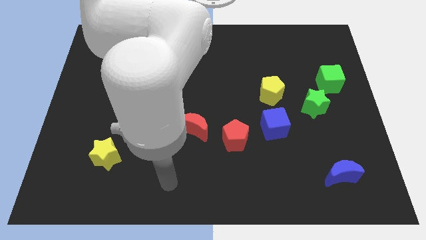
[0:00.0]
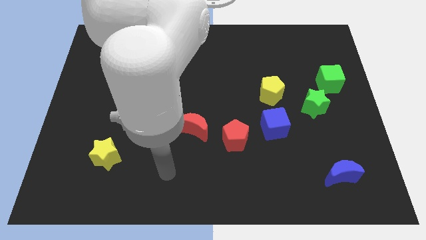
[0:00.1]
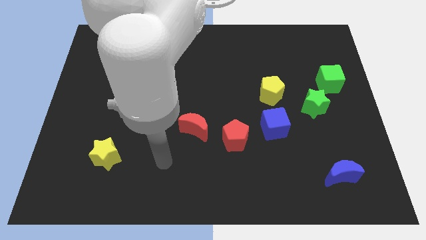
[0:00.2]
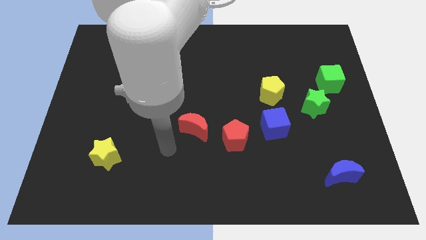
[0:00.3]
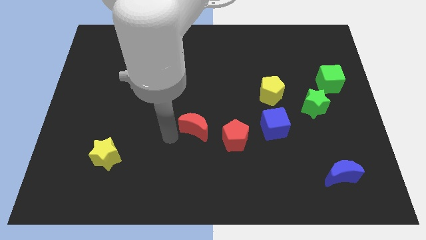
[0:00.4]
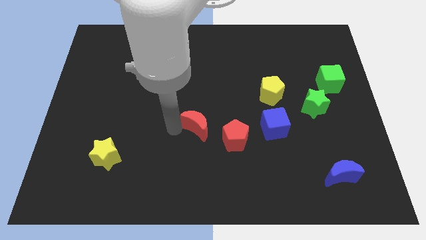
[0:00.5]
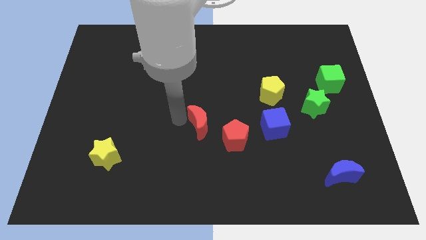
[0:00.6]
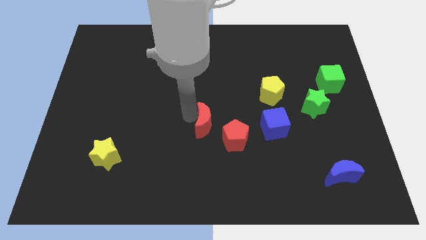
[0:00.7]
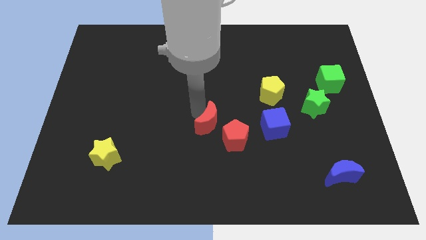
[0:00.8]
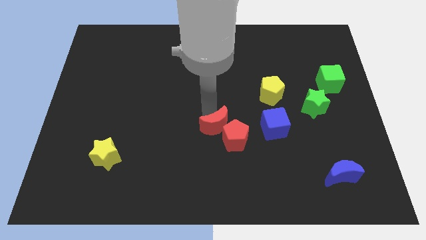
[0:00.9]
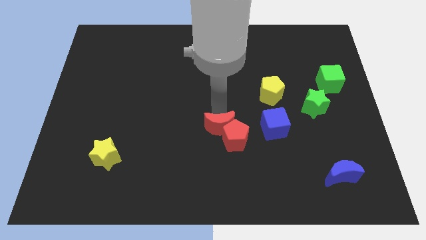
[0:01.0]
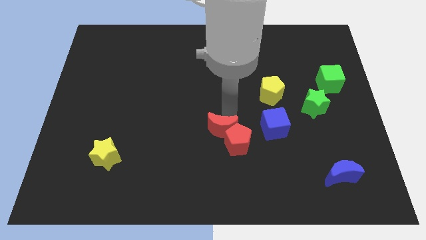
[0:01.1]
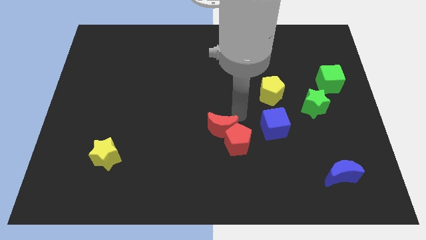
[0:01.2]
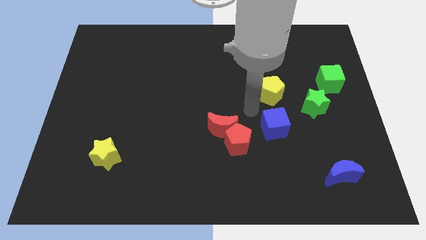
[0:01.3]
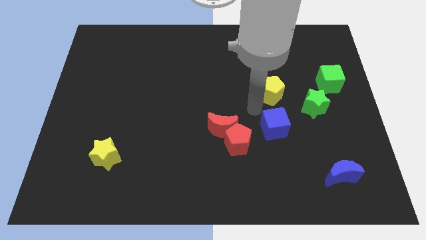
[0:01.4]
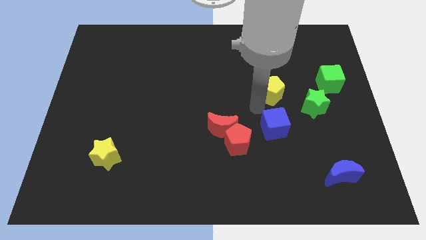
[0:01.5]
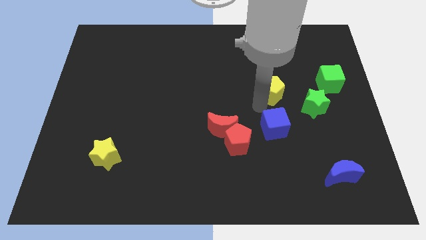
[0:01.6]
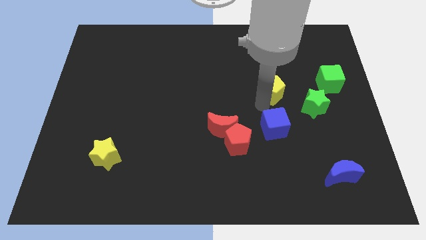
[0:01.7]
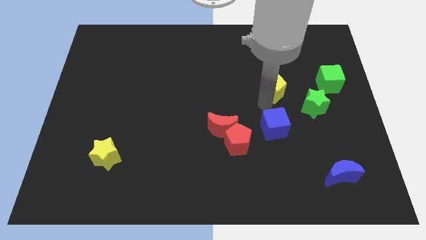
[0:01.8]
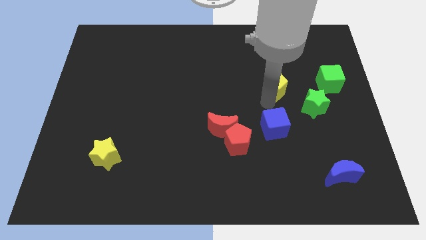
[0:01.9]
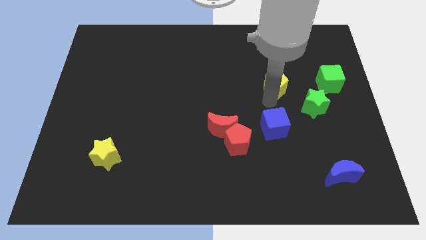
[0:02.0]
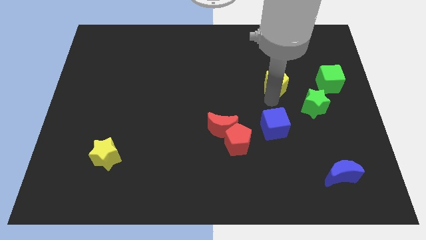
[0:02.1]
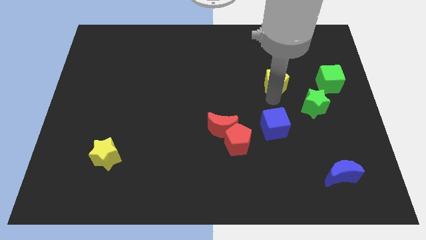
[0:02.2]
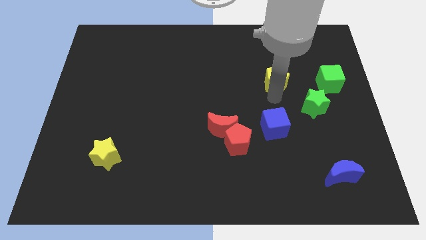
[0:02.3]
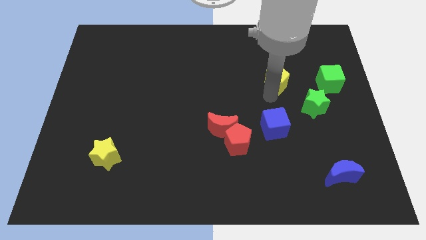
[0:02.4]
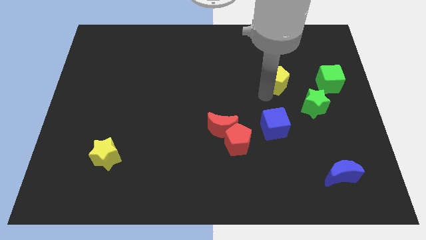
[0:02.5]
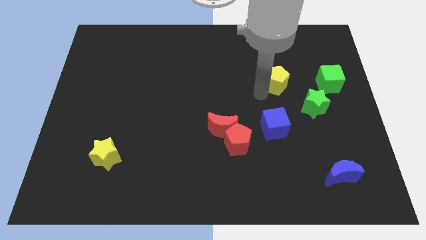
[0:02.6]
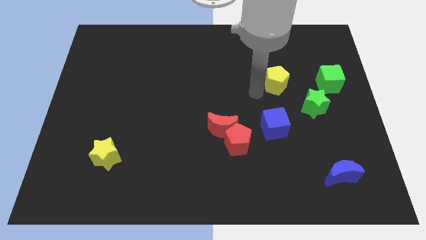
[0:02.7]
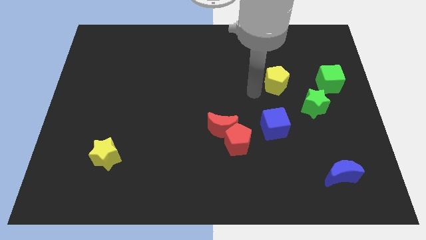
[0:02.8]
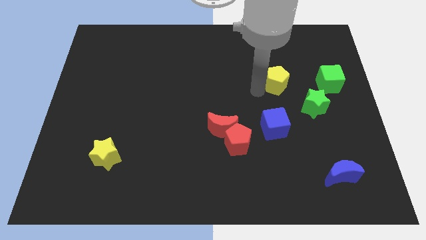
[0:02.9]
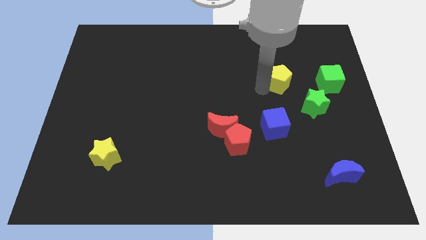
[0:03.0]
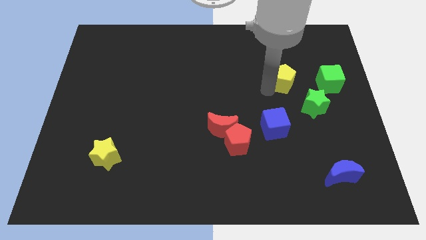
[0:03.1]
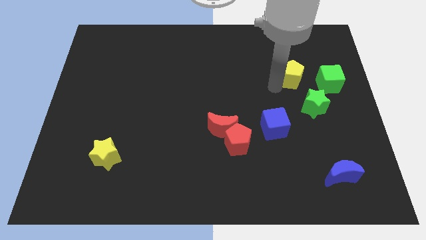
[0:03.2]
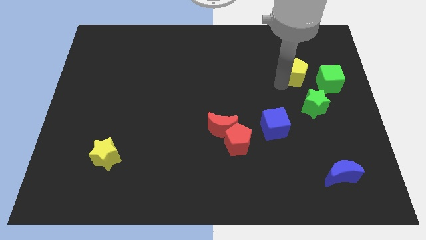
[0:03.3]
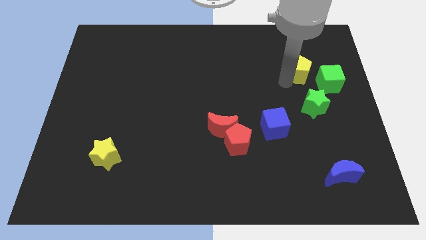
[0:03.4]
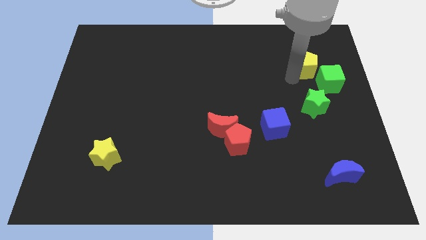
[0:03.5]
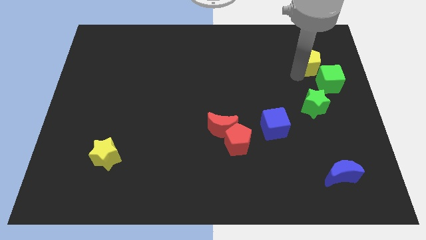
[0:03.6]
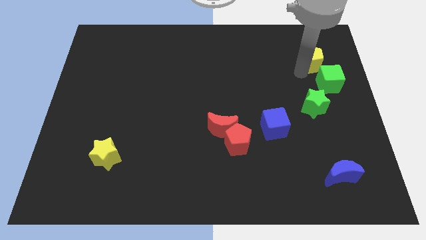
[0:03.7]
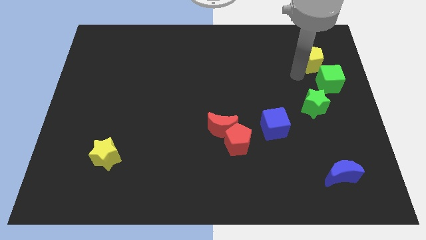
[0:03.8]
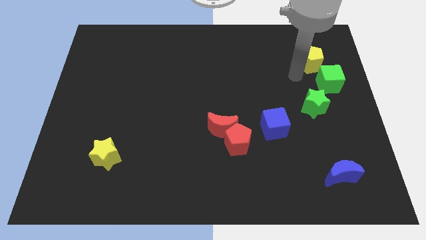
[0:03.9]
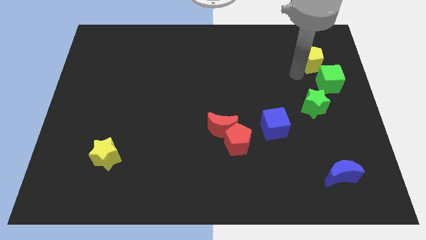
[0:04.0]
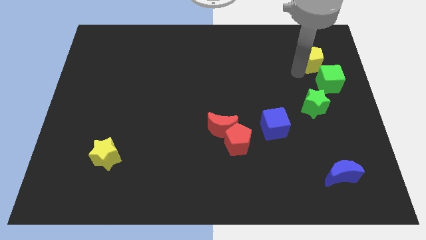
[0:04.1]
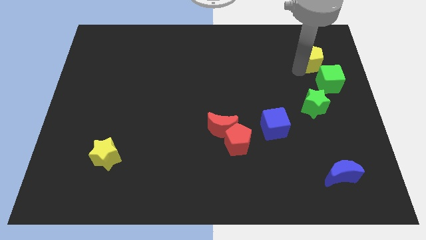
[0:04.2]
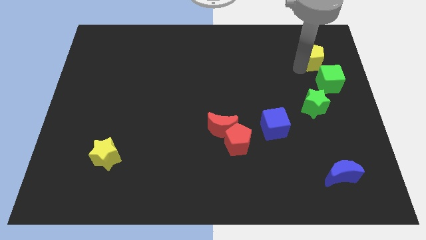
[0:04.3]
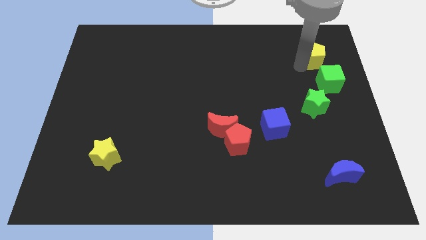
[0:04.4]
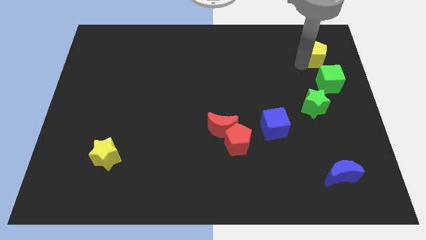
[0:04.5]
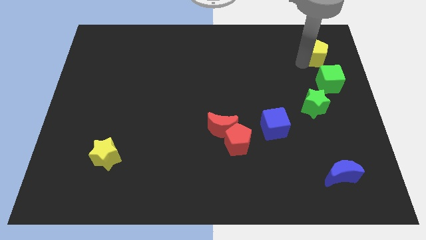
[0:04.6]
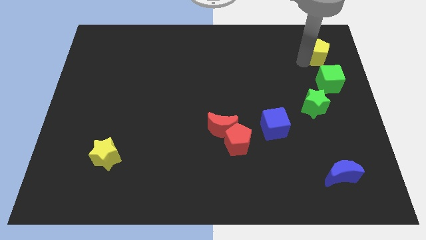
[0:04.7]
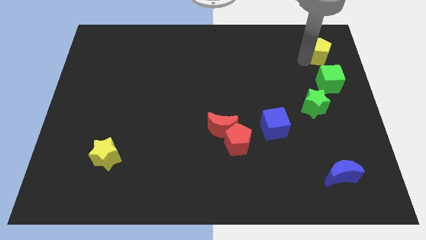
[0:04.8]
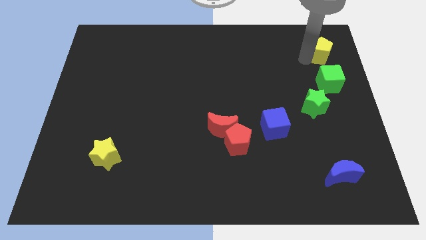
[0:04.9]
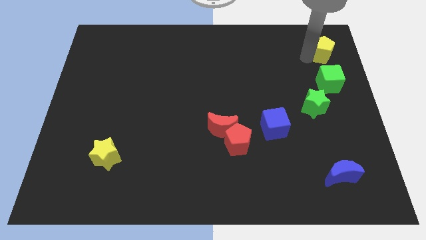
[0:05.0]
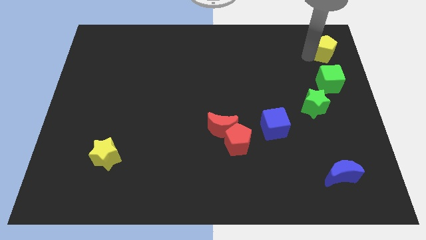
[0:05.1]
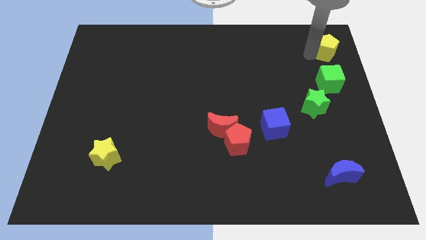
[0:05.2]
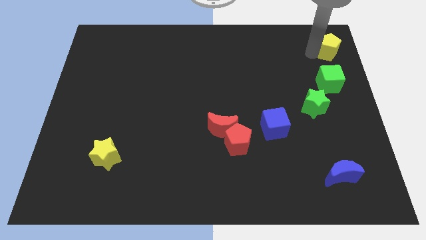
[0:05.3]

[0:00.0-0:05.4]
move the yellow pentagon to the top right

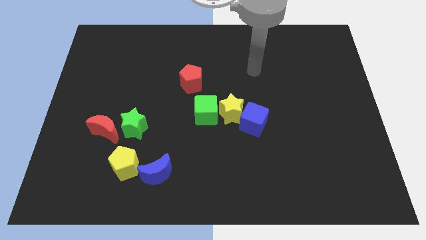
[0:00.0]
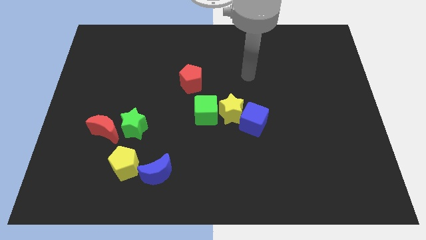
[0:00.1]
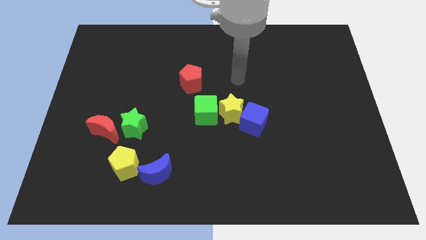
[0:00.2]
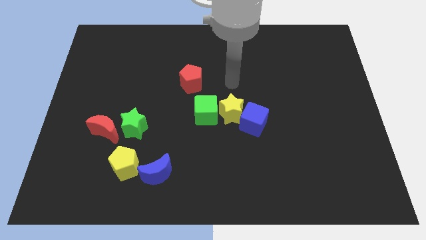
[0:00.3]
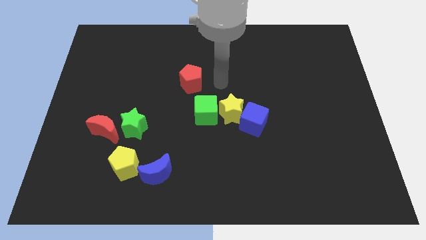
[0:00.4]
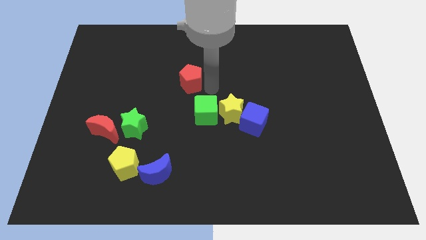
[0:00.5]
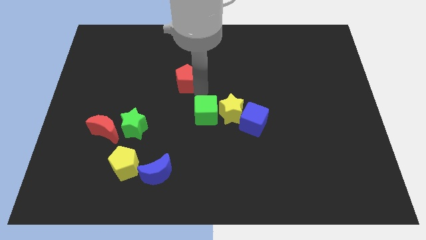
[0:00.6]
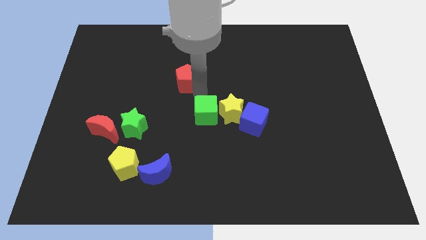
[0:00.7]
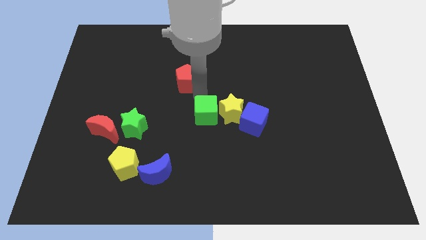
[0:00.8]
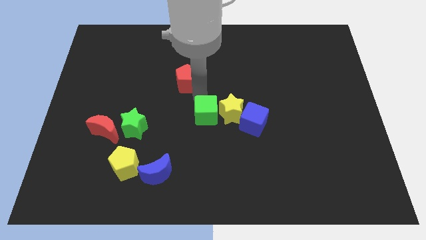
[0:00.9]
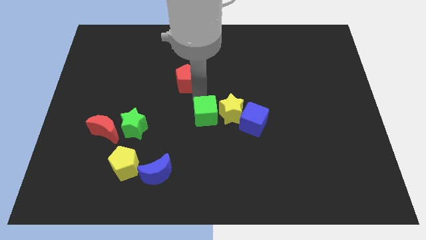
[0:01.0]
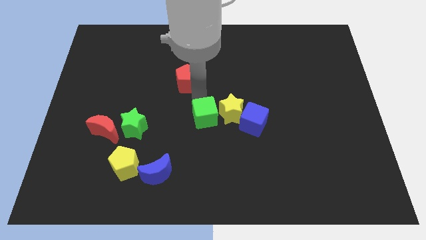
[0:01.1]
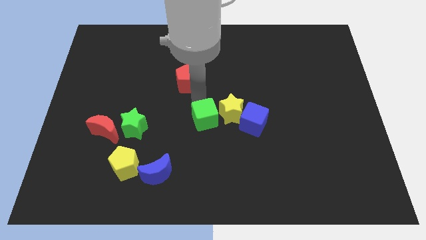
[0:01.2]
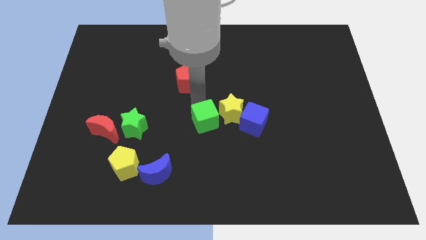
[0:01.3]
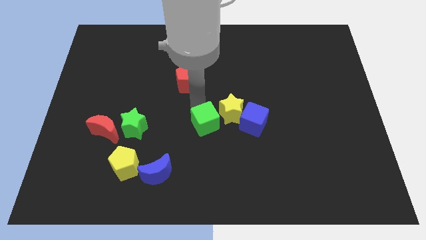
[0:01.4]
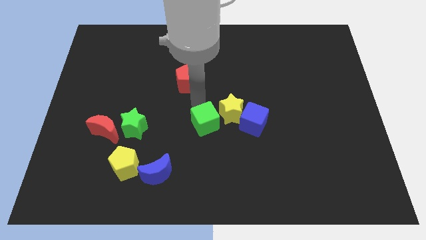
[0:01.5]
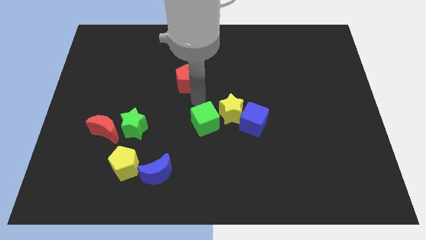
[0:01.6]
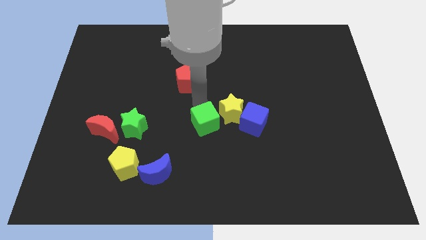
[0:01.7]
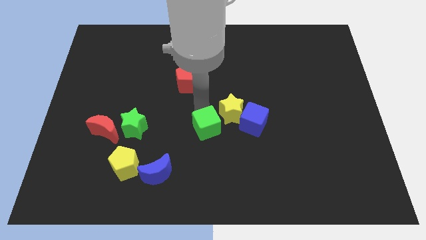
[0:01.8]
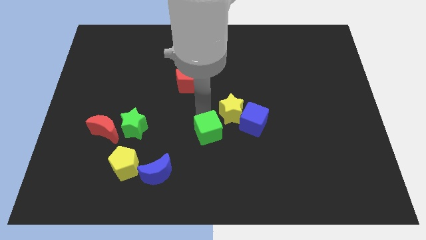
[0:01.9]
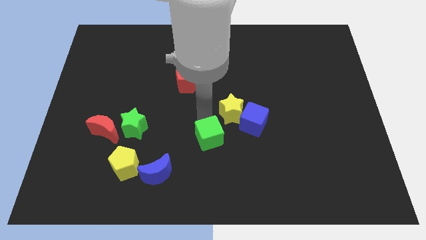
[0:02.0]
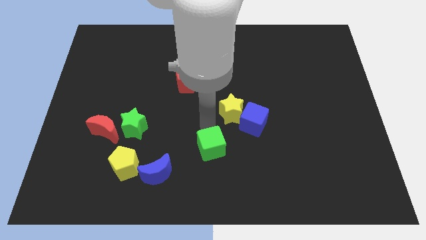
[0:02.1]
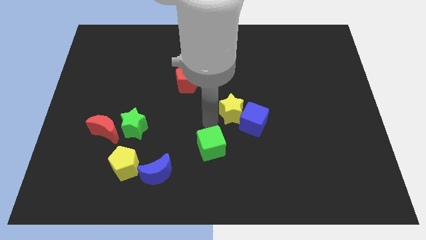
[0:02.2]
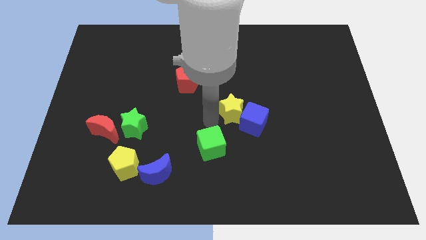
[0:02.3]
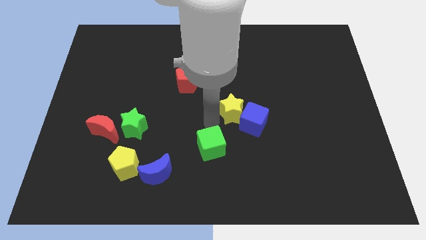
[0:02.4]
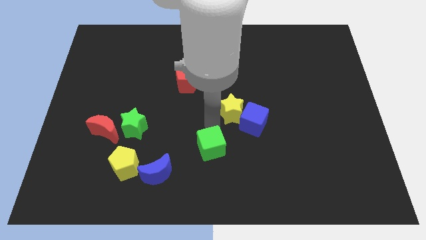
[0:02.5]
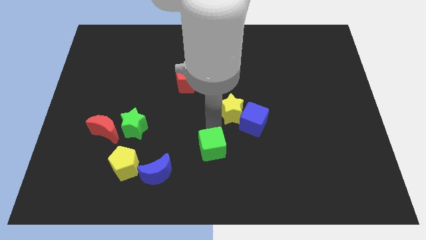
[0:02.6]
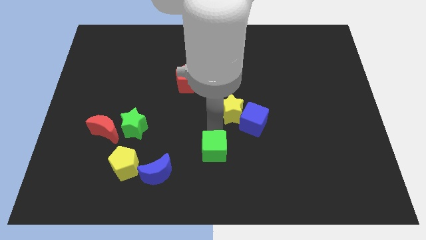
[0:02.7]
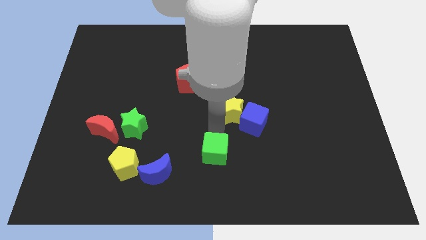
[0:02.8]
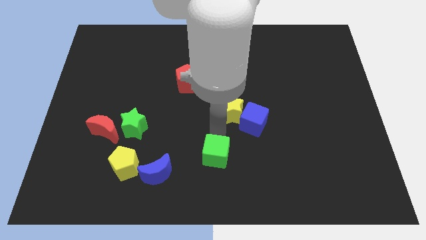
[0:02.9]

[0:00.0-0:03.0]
move the green cube to the bottom
